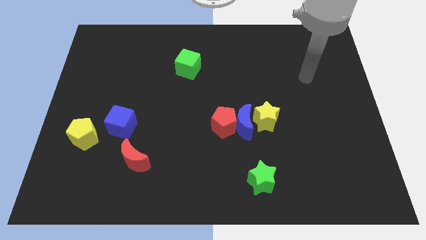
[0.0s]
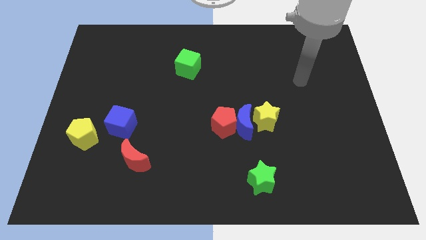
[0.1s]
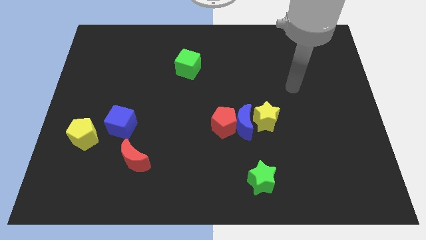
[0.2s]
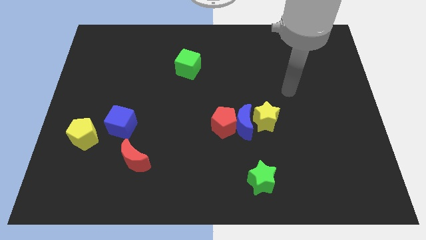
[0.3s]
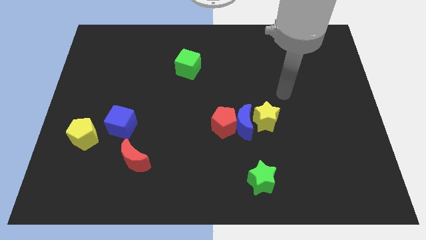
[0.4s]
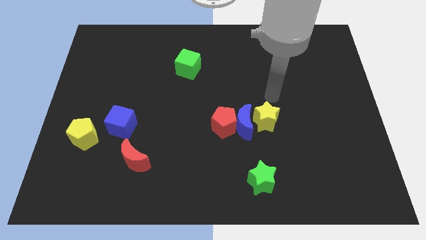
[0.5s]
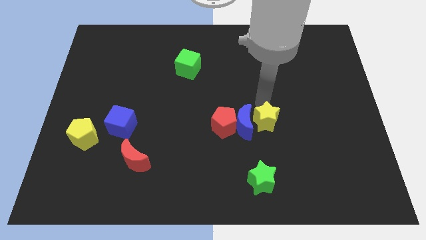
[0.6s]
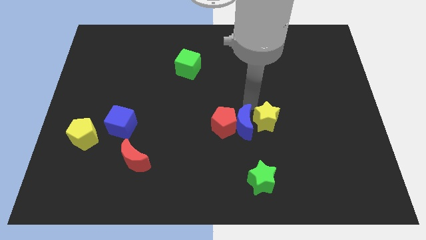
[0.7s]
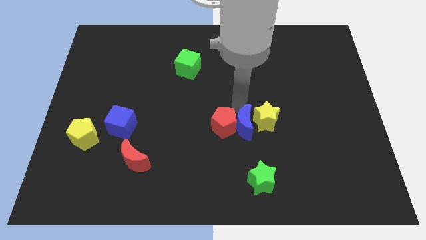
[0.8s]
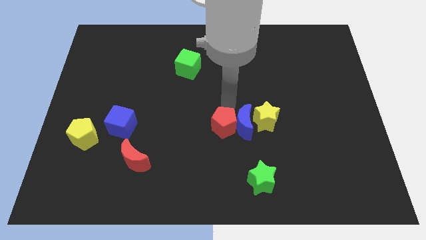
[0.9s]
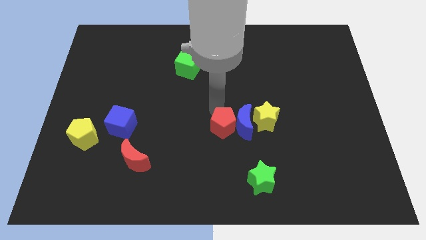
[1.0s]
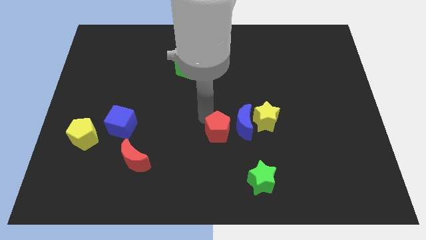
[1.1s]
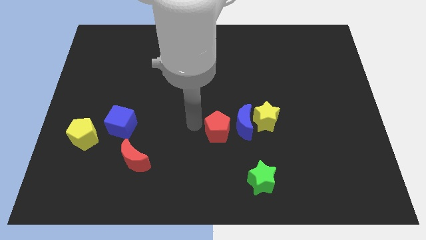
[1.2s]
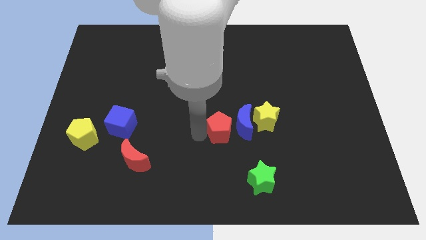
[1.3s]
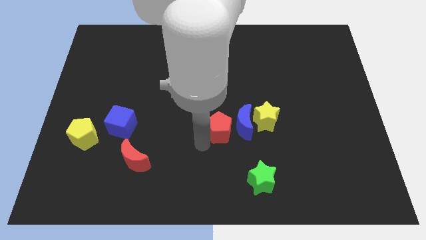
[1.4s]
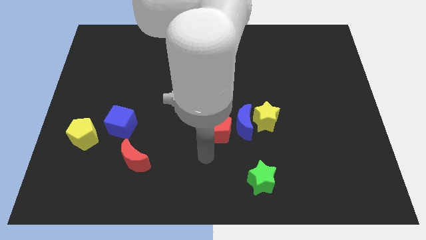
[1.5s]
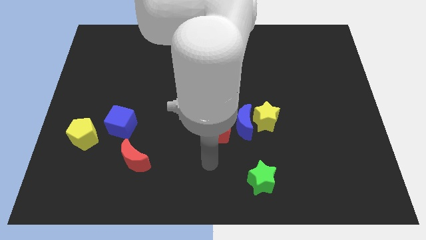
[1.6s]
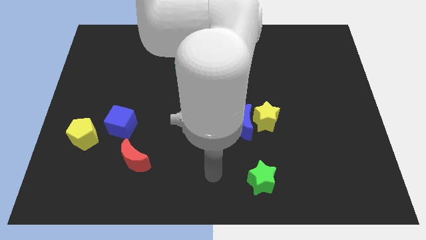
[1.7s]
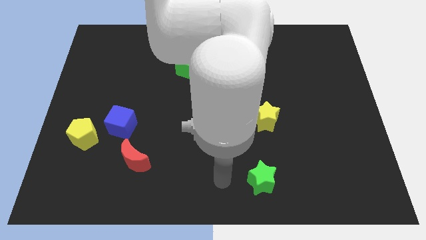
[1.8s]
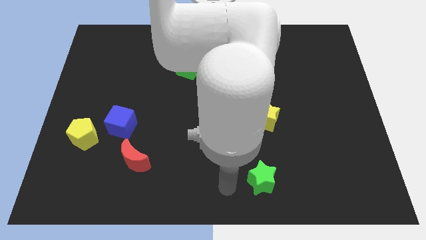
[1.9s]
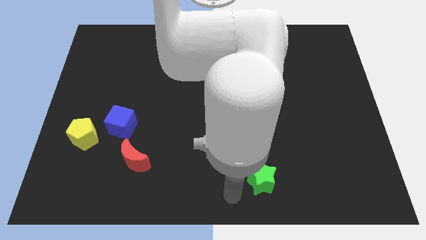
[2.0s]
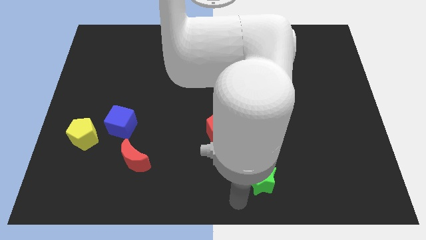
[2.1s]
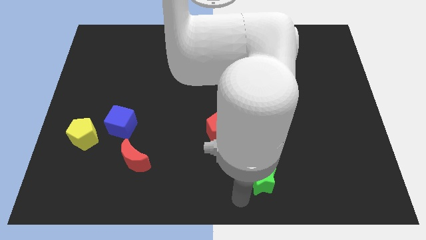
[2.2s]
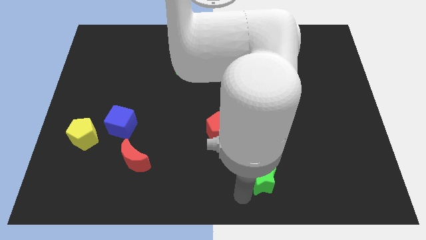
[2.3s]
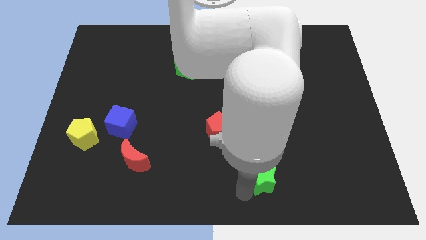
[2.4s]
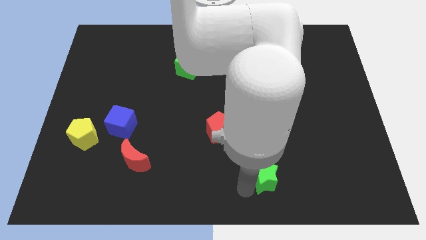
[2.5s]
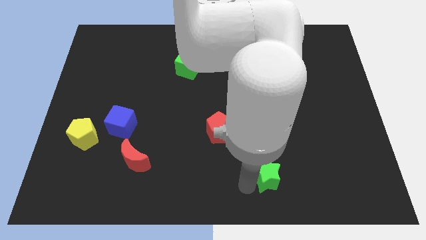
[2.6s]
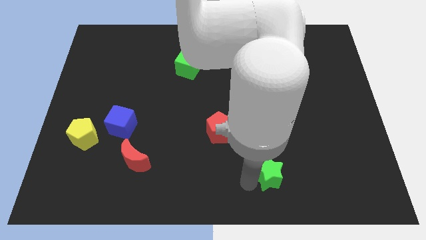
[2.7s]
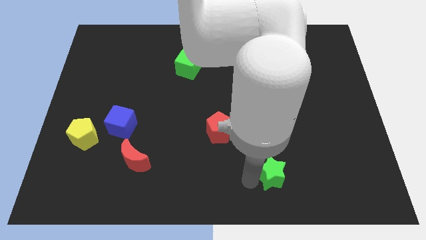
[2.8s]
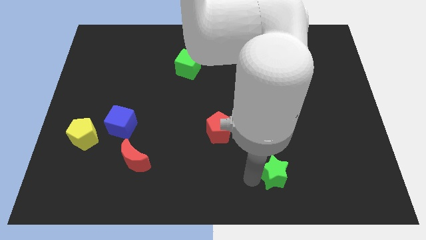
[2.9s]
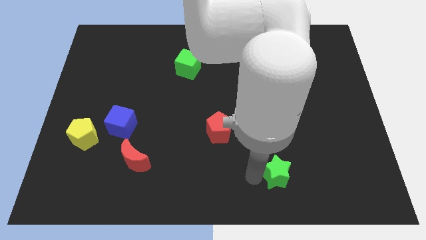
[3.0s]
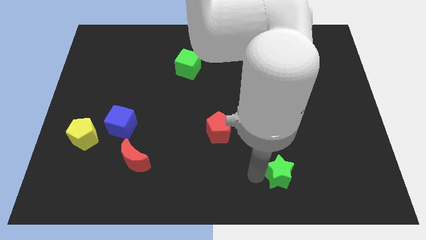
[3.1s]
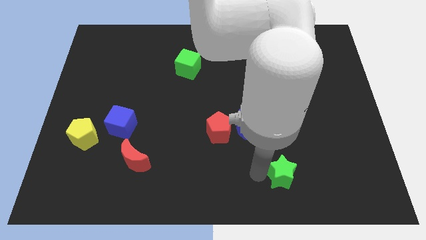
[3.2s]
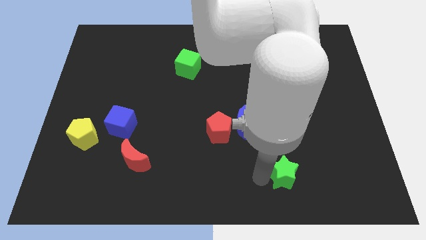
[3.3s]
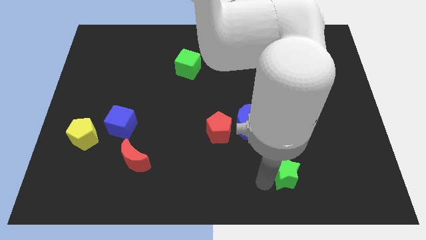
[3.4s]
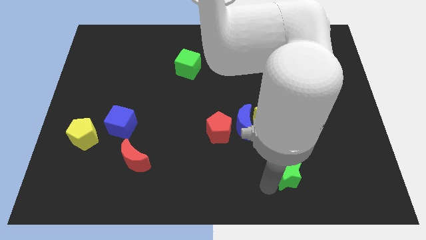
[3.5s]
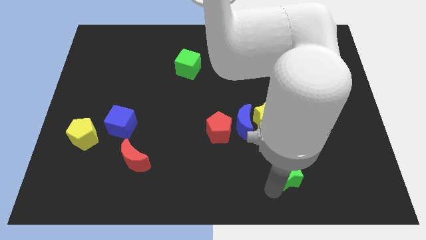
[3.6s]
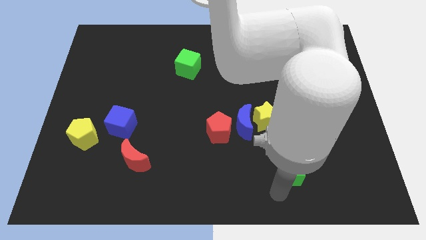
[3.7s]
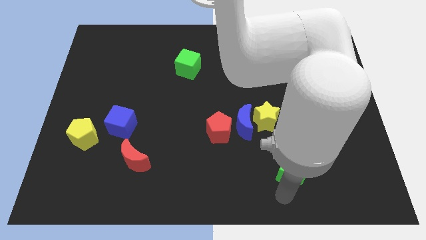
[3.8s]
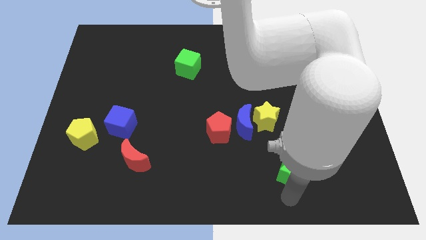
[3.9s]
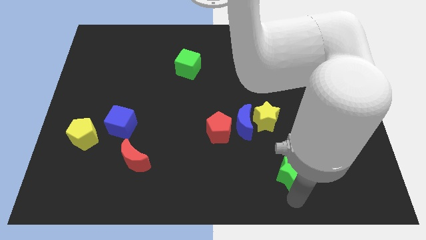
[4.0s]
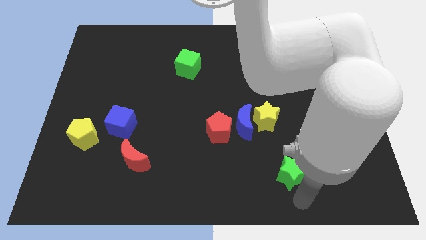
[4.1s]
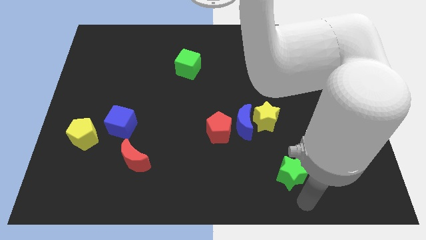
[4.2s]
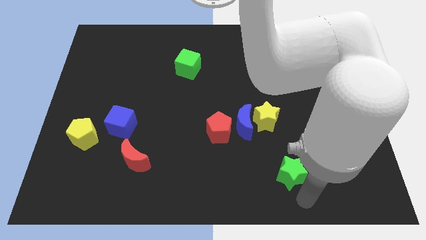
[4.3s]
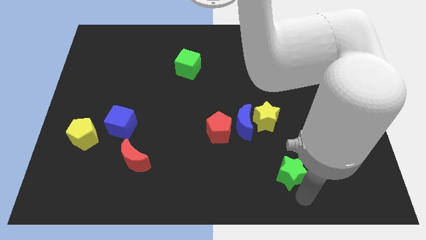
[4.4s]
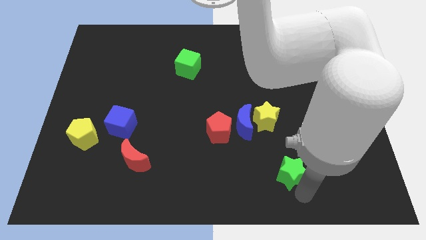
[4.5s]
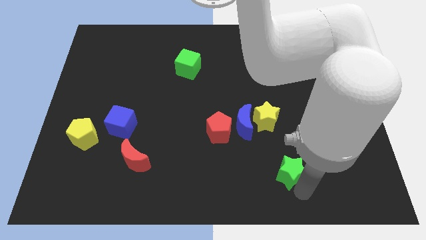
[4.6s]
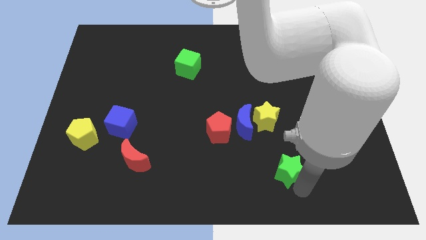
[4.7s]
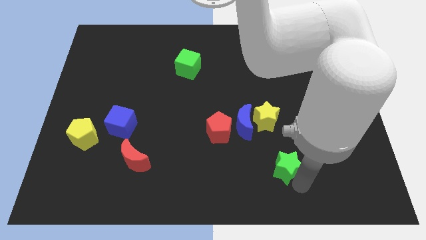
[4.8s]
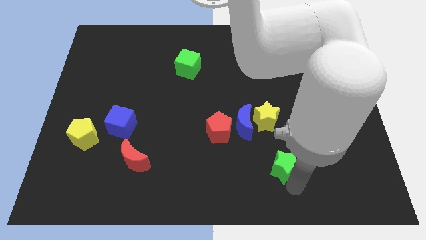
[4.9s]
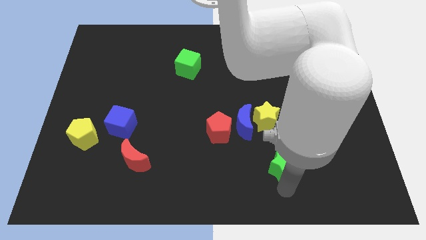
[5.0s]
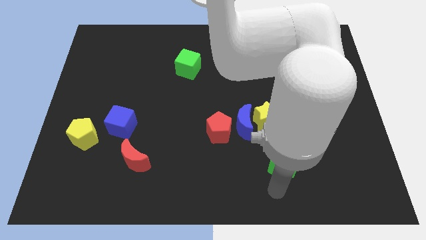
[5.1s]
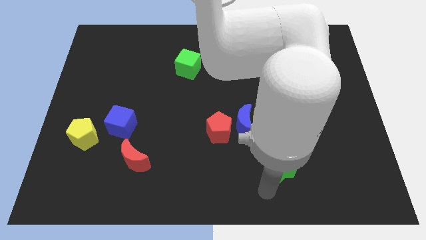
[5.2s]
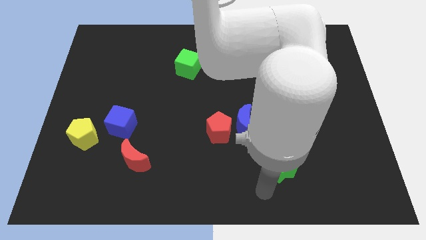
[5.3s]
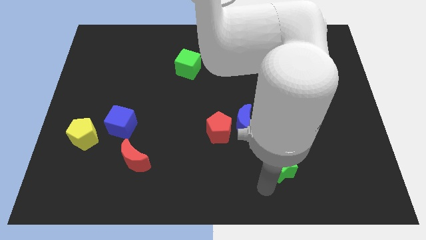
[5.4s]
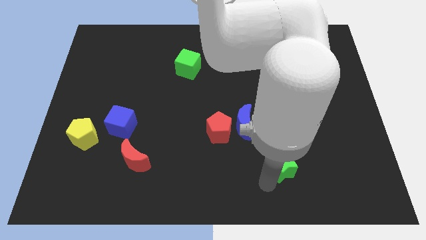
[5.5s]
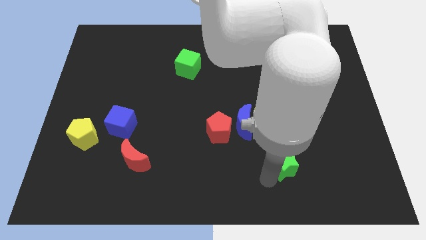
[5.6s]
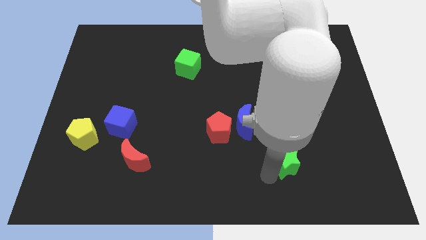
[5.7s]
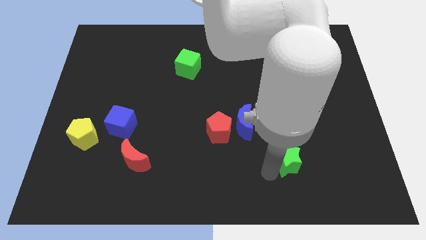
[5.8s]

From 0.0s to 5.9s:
slightly slide the green star diagonally upwards and right

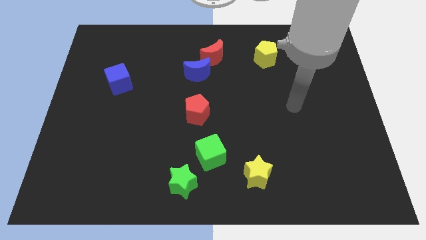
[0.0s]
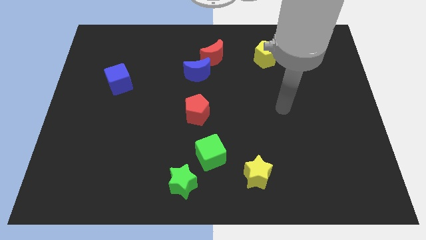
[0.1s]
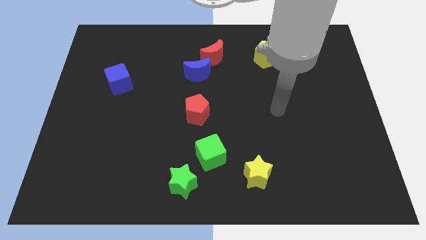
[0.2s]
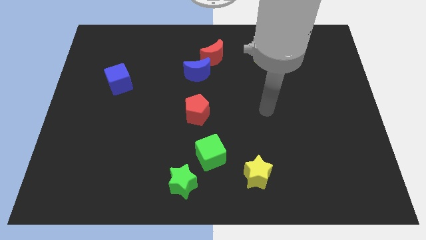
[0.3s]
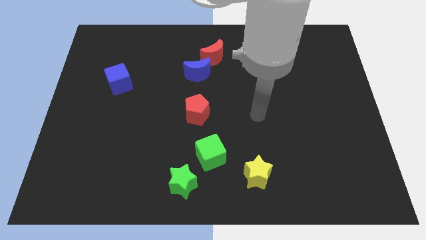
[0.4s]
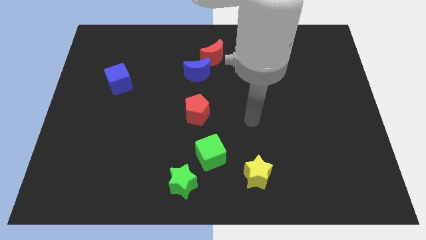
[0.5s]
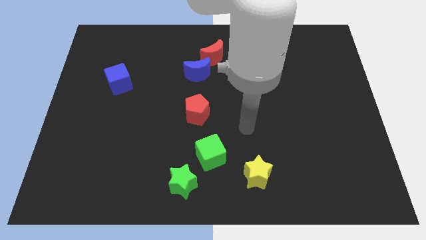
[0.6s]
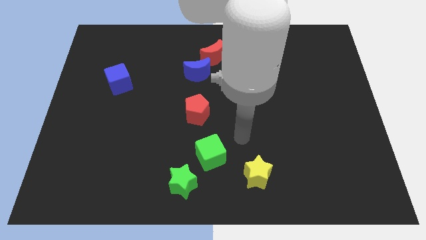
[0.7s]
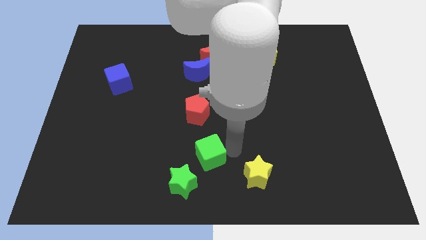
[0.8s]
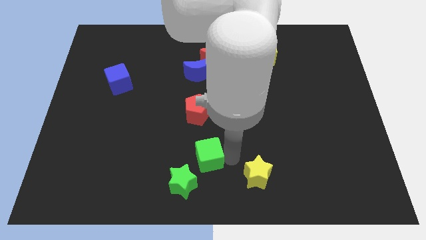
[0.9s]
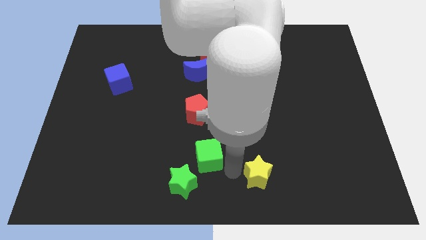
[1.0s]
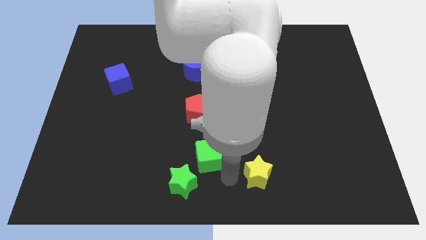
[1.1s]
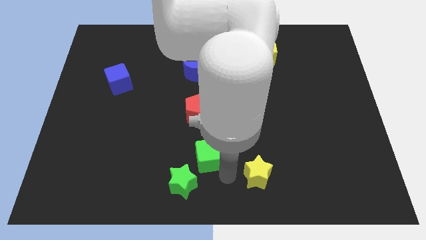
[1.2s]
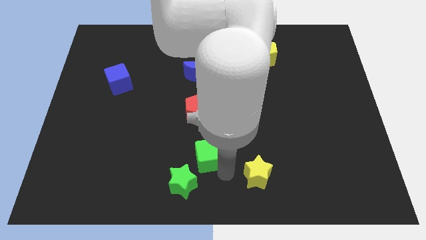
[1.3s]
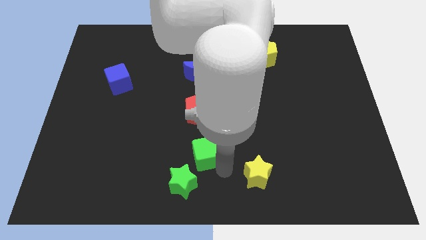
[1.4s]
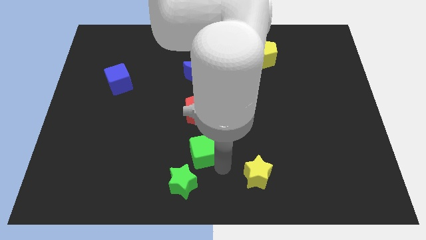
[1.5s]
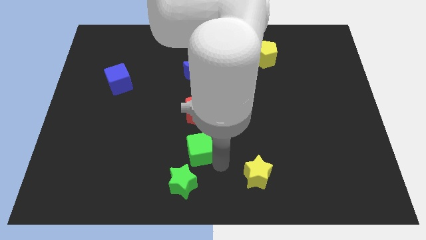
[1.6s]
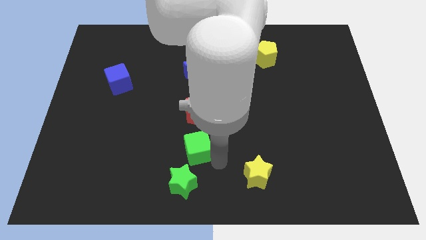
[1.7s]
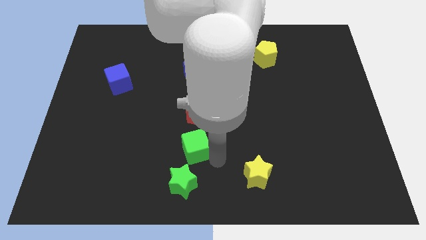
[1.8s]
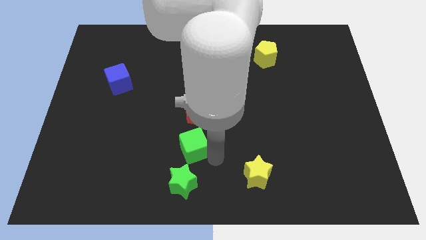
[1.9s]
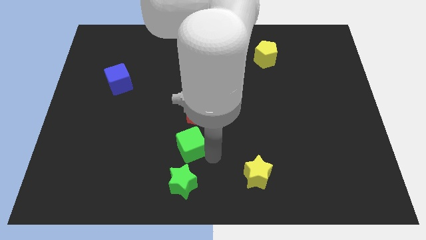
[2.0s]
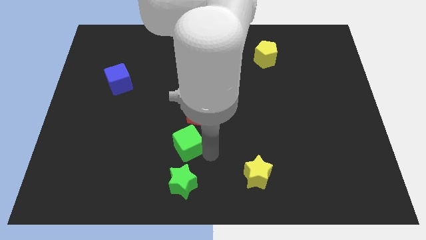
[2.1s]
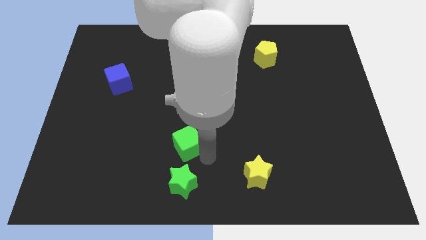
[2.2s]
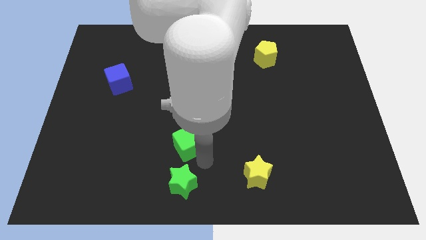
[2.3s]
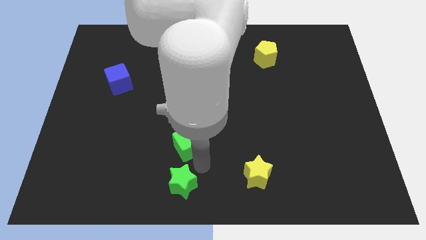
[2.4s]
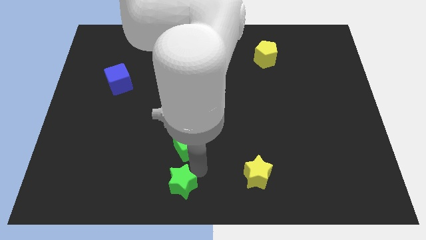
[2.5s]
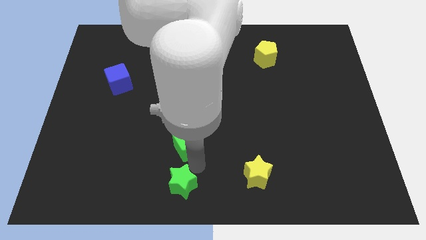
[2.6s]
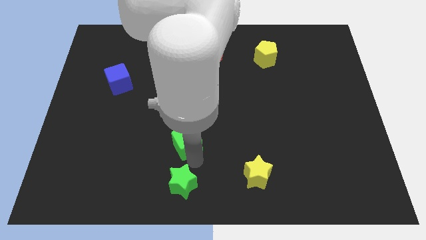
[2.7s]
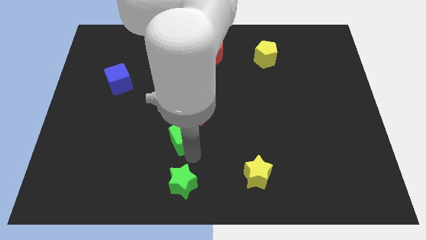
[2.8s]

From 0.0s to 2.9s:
move the green cube upwards and left a bit
